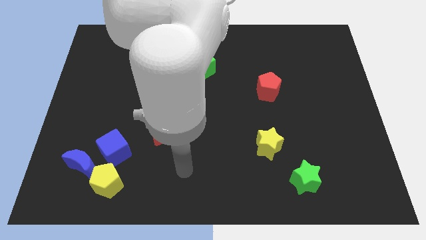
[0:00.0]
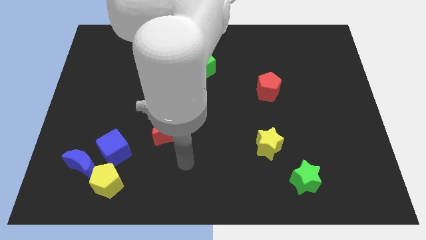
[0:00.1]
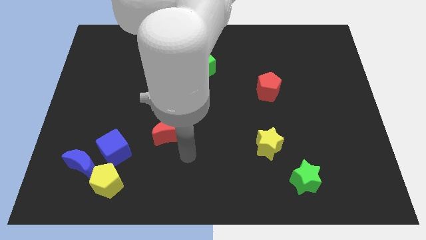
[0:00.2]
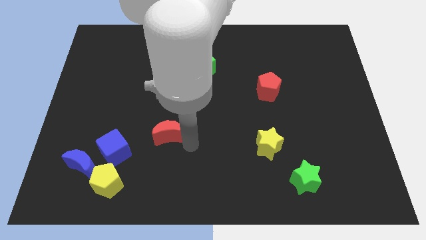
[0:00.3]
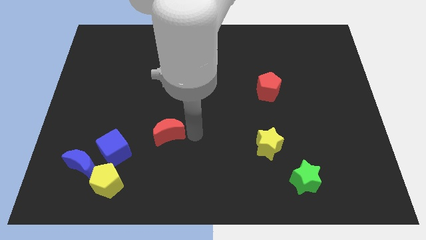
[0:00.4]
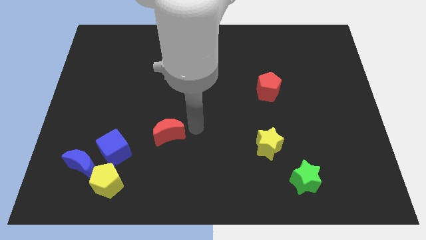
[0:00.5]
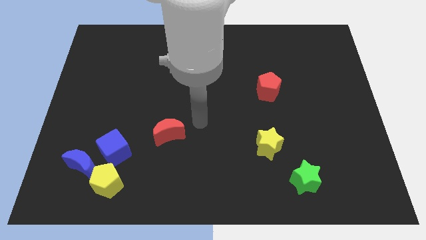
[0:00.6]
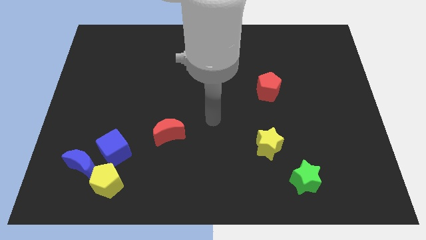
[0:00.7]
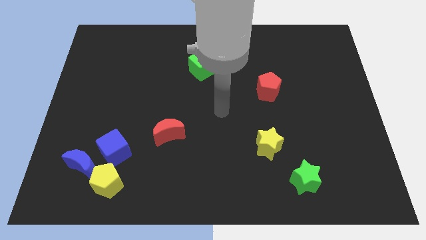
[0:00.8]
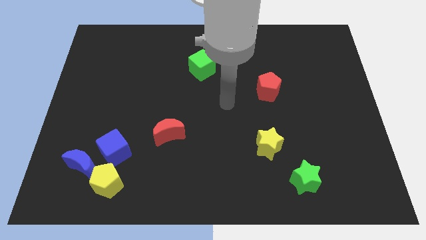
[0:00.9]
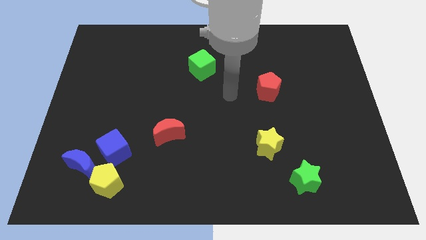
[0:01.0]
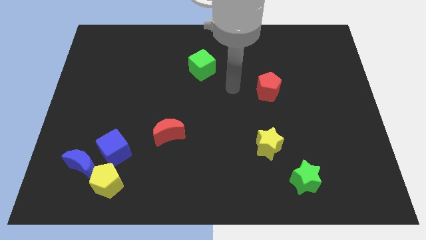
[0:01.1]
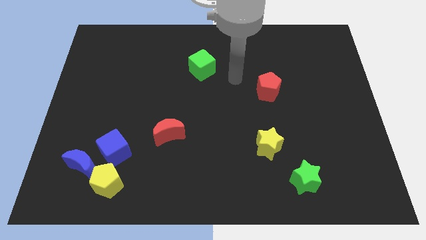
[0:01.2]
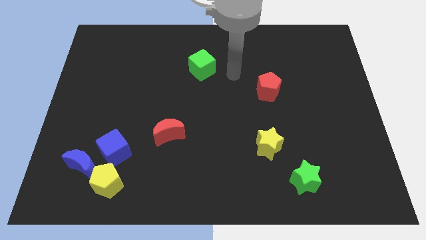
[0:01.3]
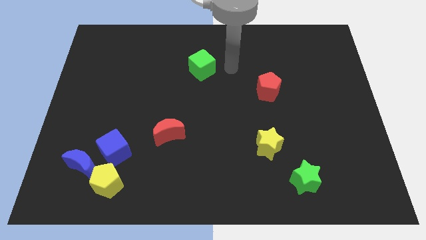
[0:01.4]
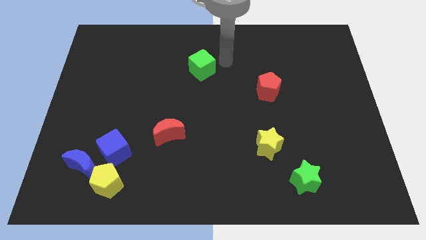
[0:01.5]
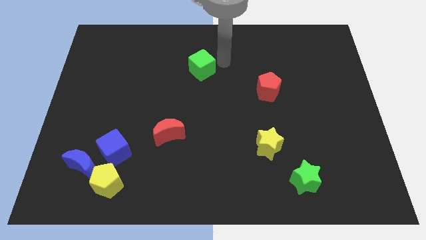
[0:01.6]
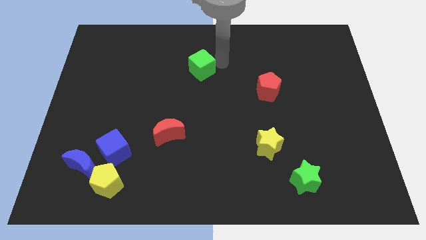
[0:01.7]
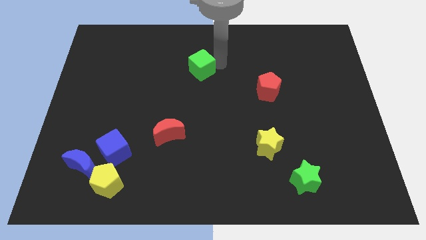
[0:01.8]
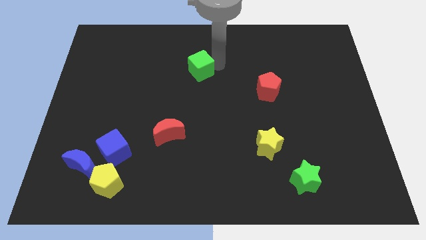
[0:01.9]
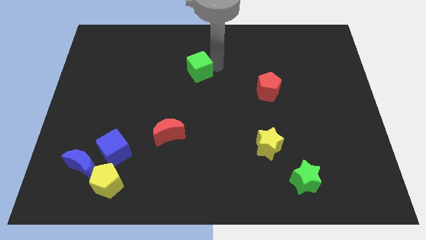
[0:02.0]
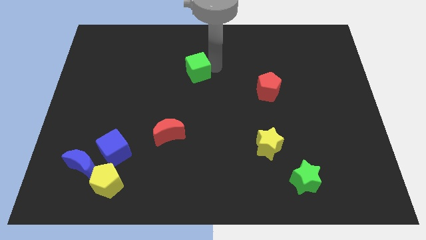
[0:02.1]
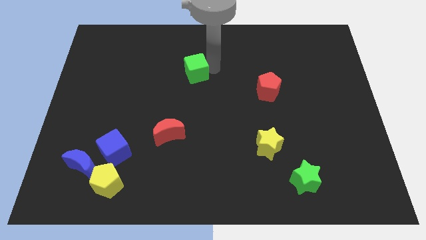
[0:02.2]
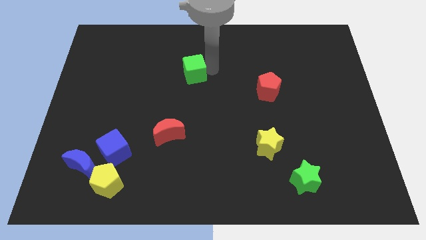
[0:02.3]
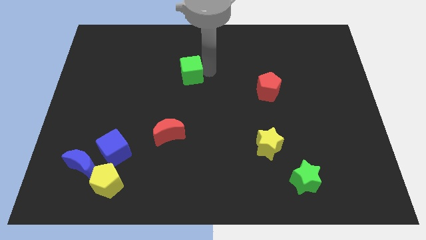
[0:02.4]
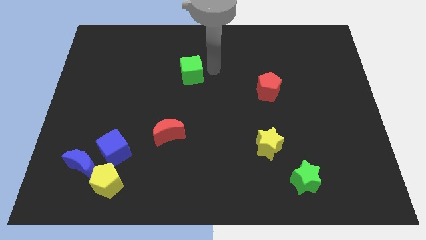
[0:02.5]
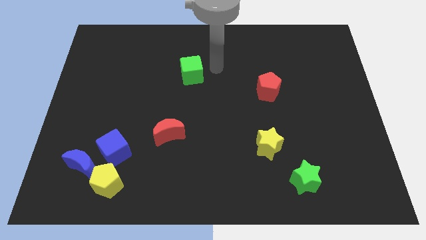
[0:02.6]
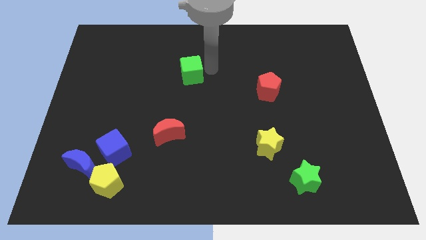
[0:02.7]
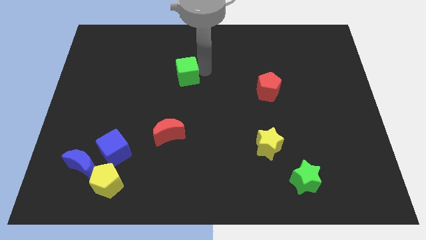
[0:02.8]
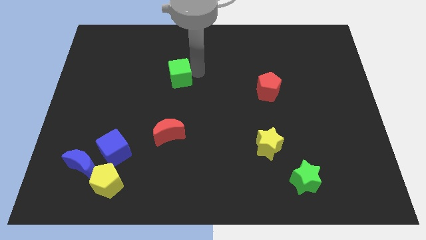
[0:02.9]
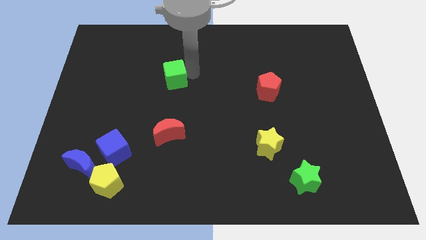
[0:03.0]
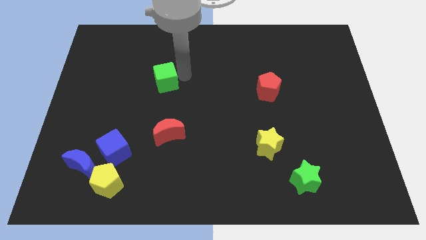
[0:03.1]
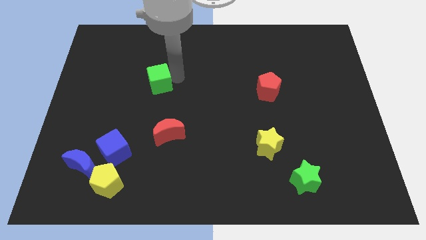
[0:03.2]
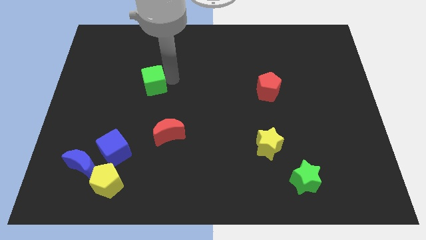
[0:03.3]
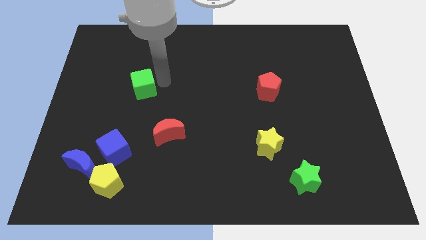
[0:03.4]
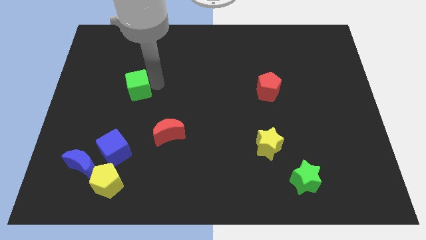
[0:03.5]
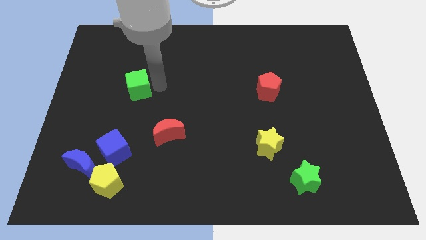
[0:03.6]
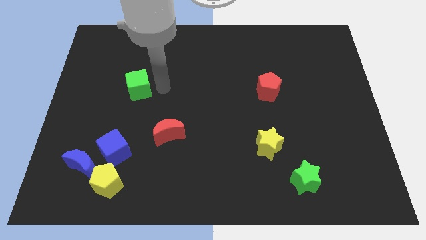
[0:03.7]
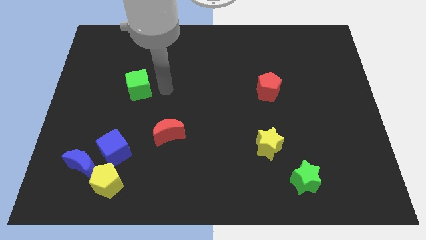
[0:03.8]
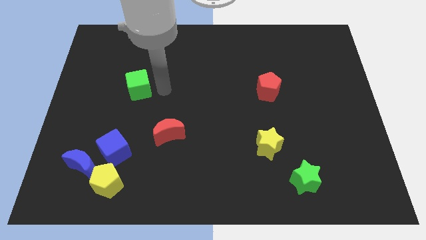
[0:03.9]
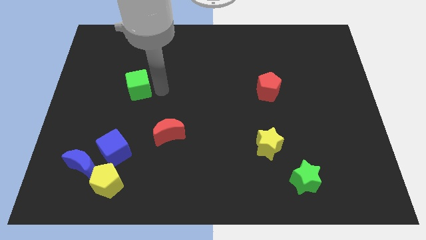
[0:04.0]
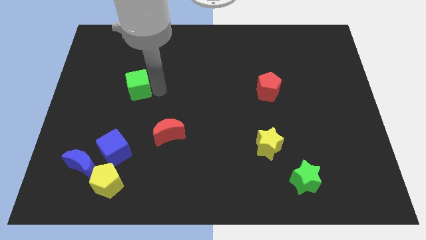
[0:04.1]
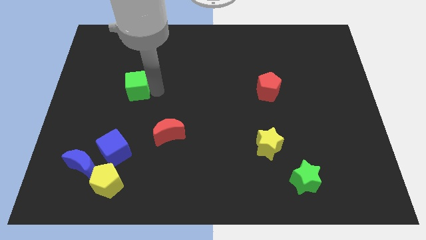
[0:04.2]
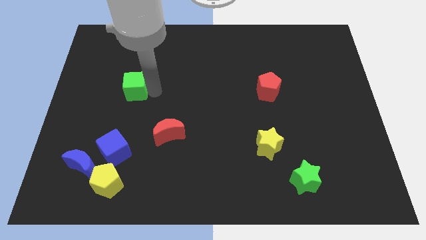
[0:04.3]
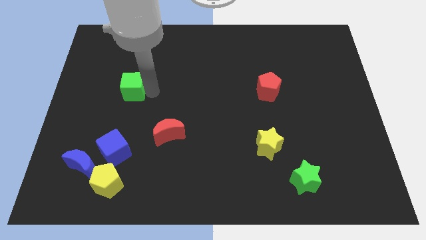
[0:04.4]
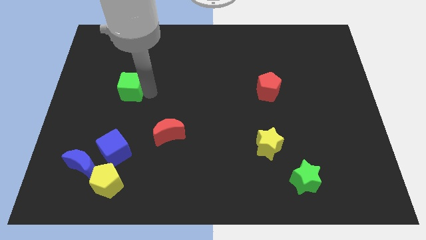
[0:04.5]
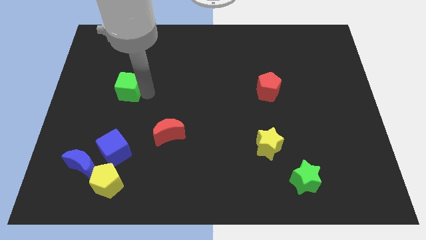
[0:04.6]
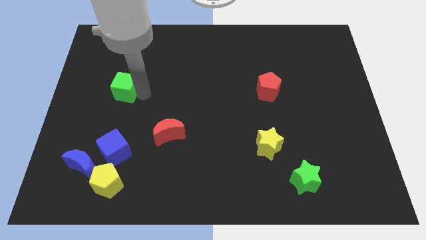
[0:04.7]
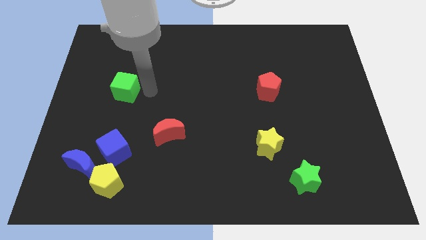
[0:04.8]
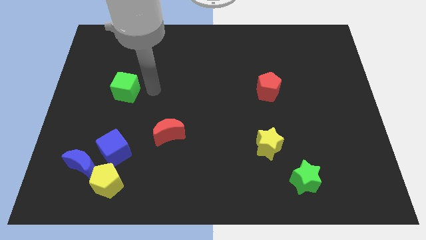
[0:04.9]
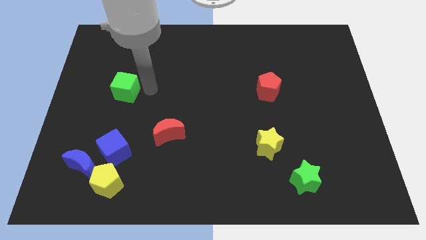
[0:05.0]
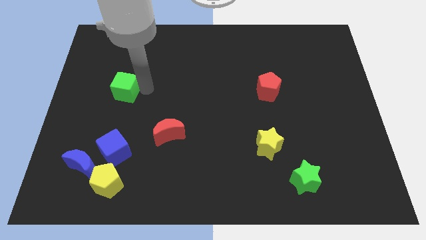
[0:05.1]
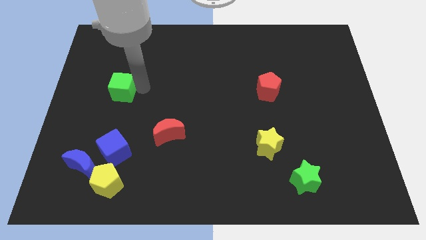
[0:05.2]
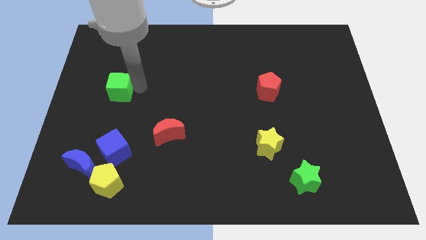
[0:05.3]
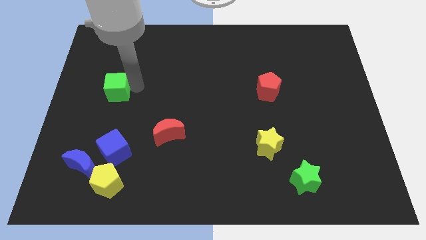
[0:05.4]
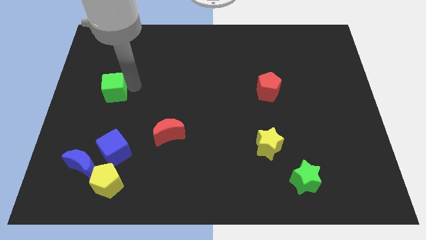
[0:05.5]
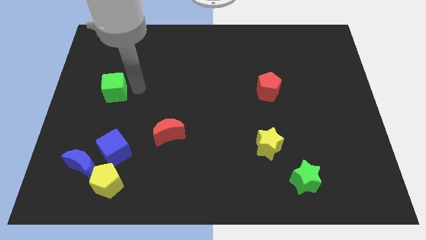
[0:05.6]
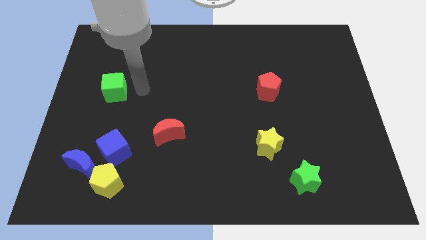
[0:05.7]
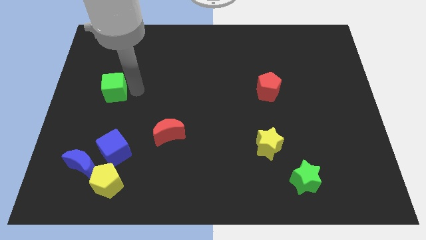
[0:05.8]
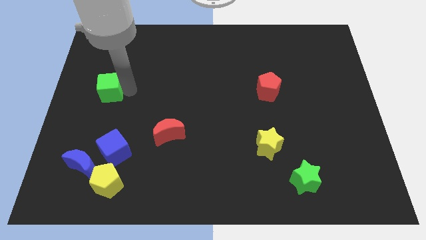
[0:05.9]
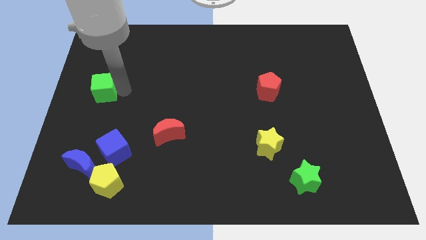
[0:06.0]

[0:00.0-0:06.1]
move the green cube to the left side
